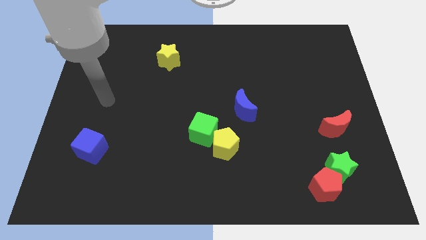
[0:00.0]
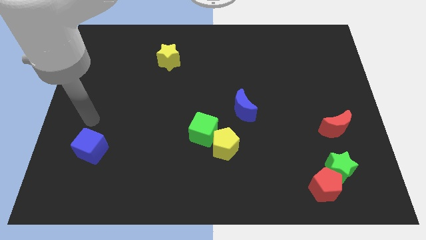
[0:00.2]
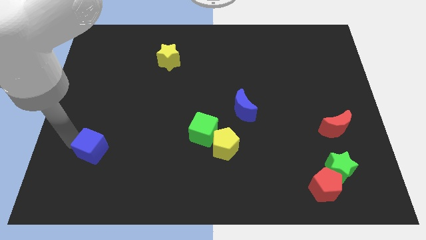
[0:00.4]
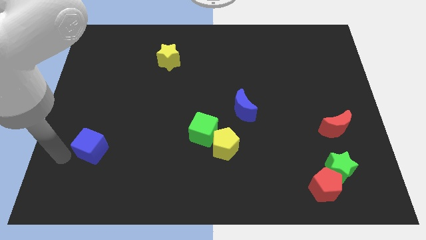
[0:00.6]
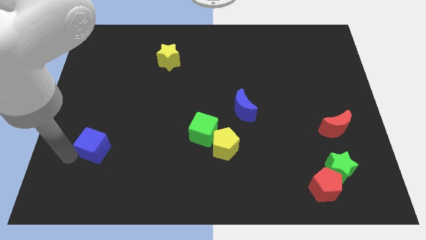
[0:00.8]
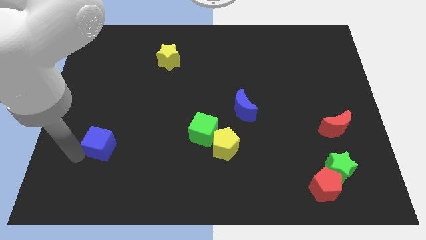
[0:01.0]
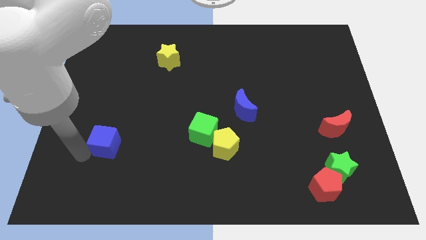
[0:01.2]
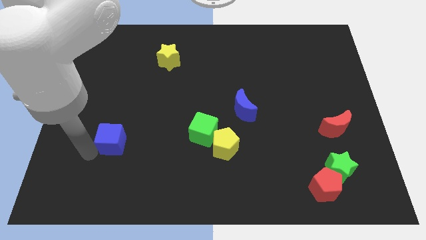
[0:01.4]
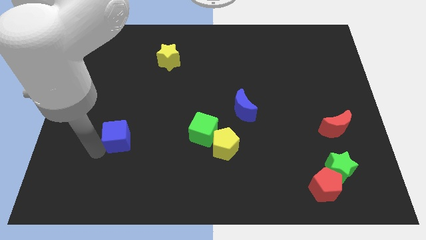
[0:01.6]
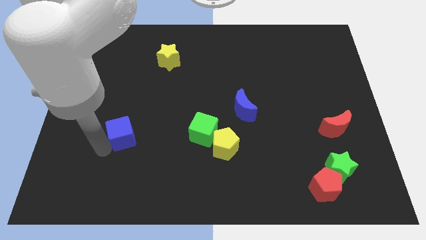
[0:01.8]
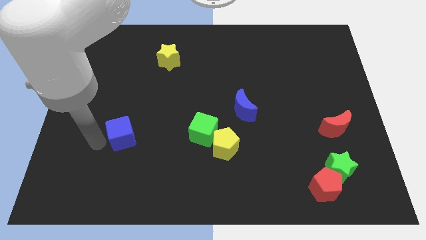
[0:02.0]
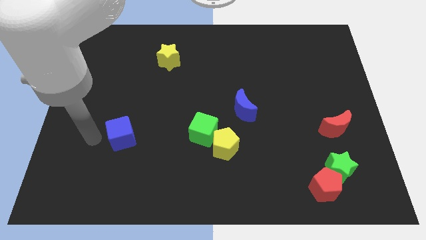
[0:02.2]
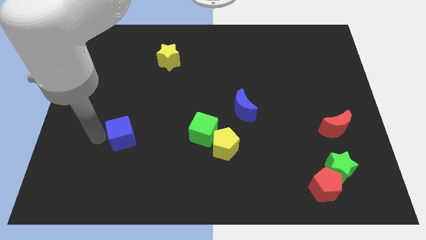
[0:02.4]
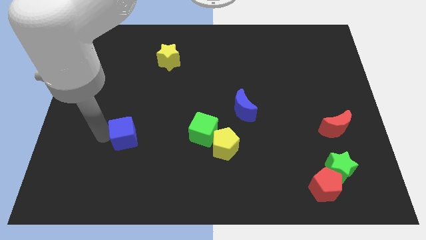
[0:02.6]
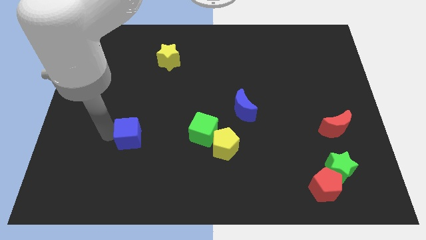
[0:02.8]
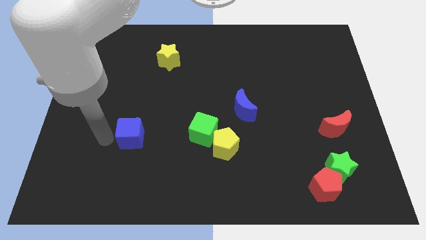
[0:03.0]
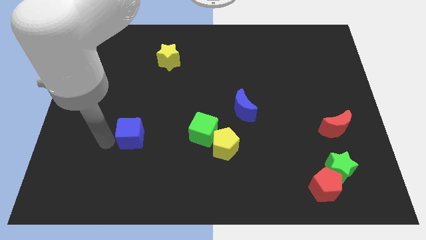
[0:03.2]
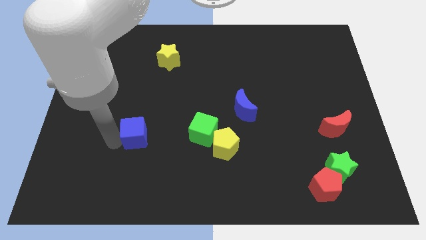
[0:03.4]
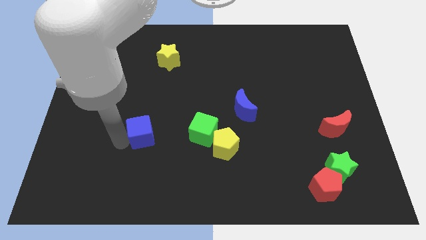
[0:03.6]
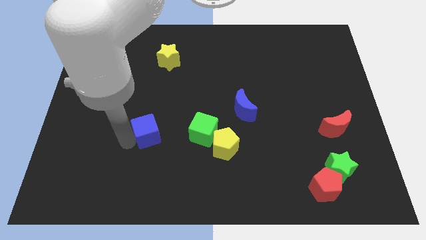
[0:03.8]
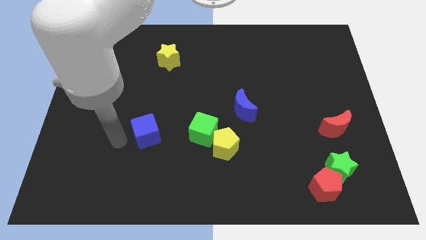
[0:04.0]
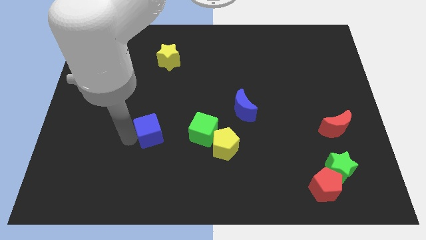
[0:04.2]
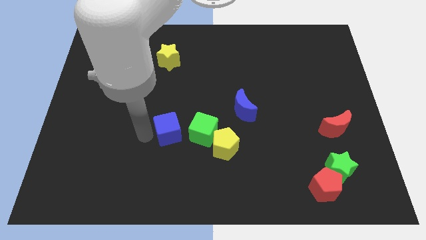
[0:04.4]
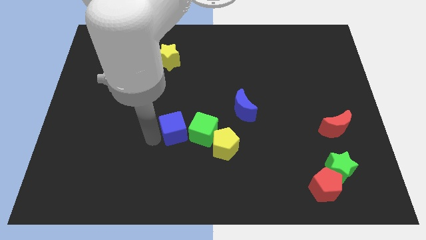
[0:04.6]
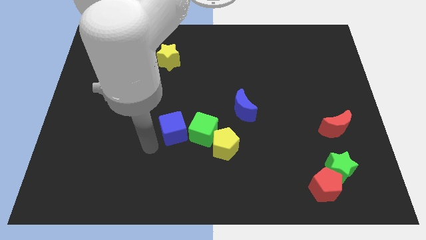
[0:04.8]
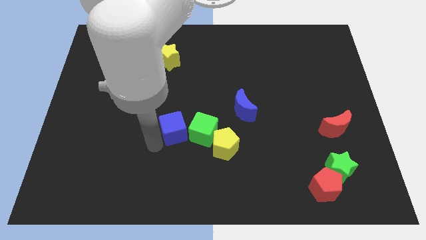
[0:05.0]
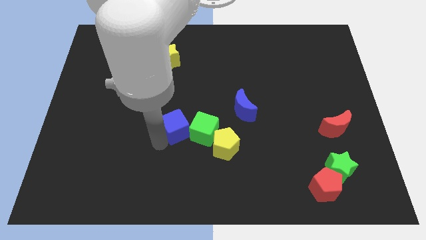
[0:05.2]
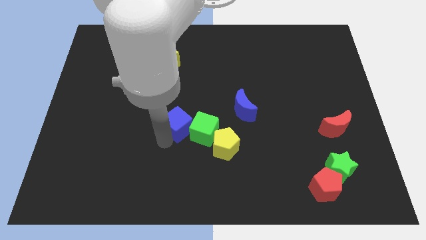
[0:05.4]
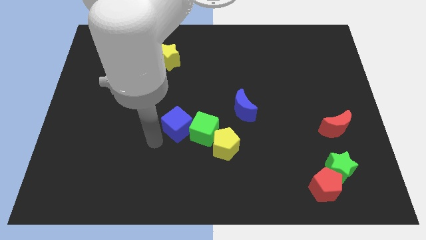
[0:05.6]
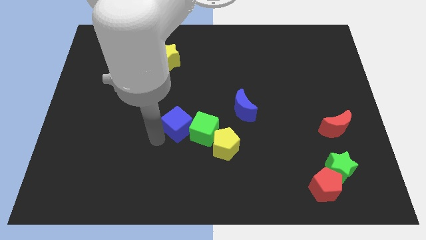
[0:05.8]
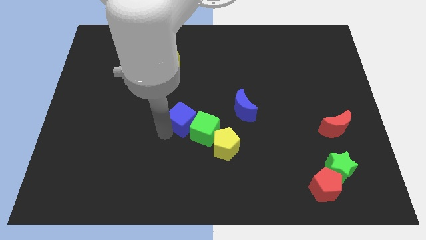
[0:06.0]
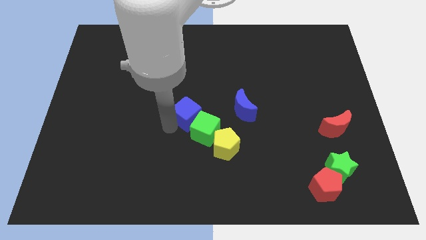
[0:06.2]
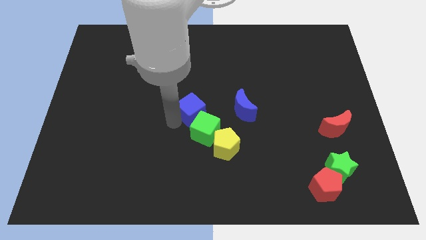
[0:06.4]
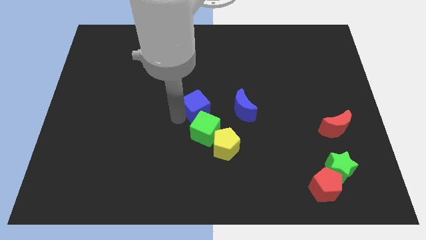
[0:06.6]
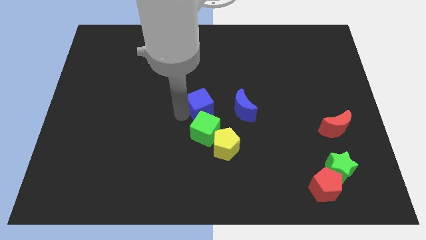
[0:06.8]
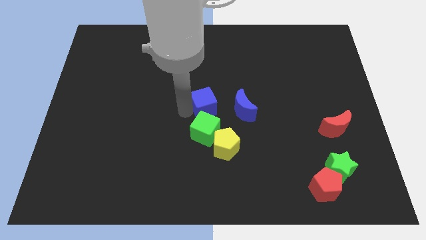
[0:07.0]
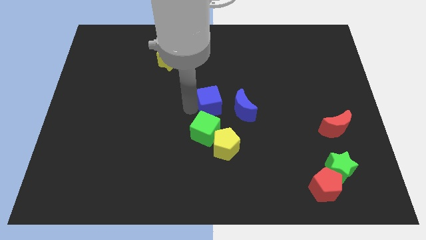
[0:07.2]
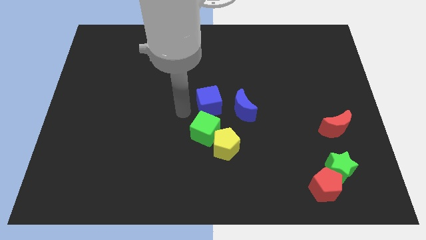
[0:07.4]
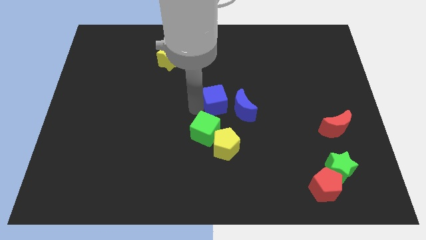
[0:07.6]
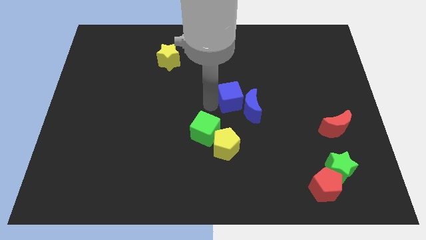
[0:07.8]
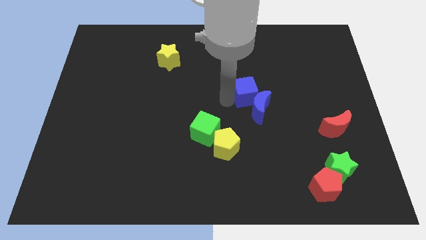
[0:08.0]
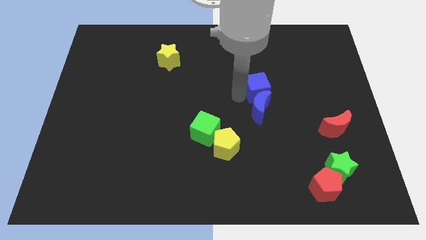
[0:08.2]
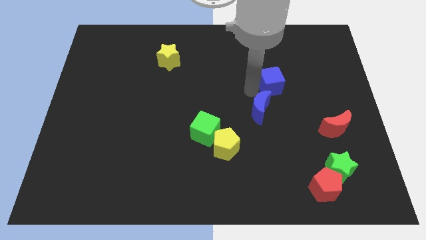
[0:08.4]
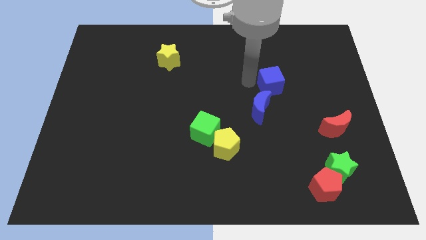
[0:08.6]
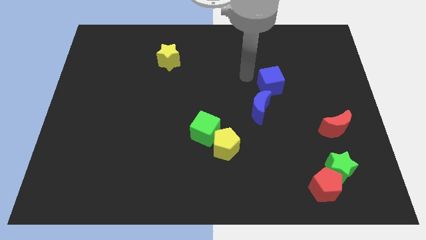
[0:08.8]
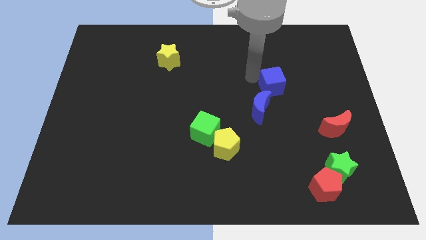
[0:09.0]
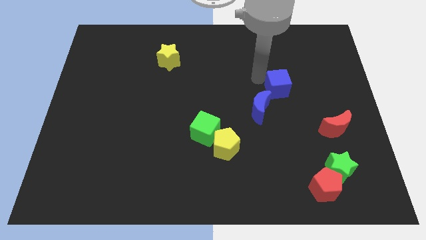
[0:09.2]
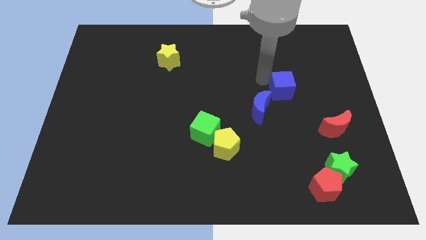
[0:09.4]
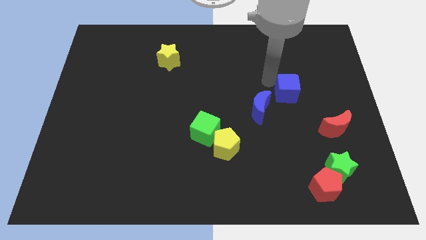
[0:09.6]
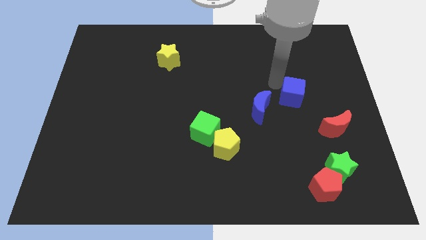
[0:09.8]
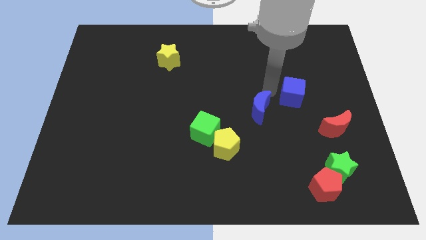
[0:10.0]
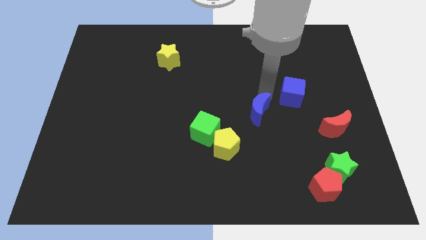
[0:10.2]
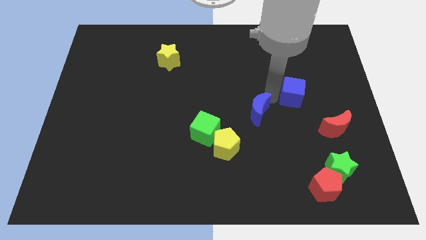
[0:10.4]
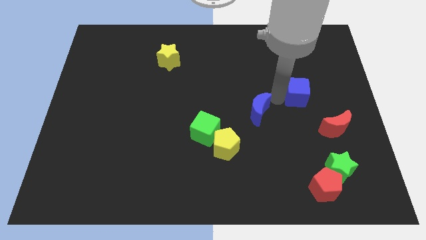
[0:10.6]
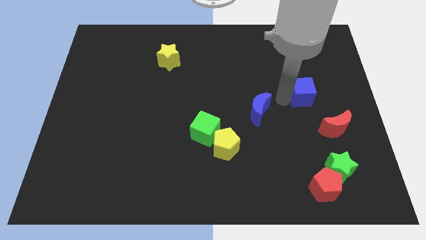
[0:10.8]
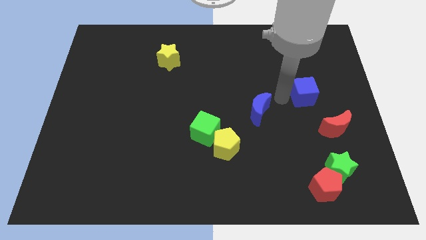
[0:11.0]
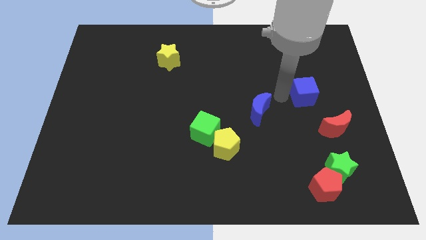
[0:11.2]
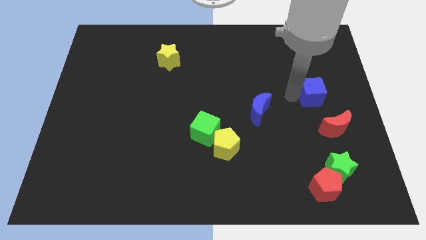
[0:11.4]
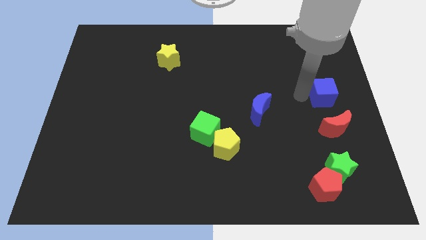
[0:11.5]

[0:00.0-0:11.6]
put the blue cube to the center right

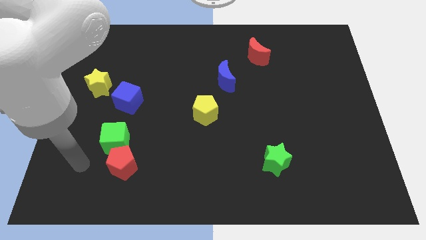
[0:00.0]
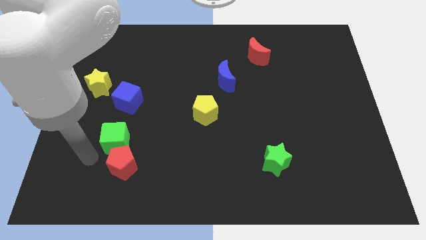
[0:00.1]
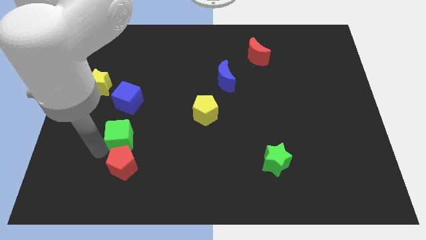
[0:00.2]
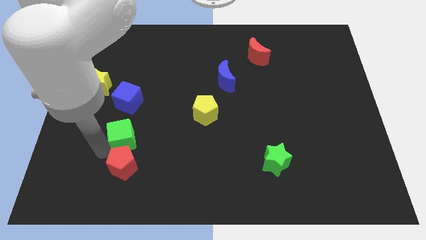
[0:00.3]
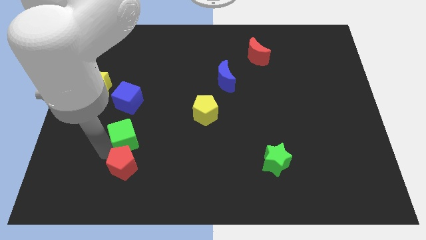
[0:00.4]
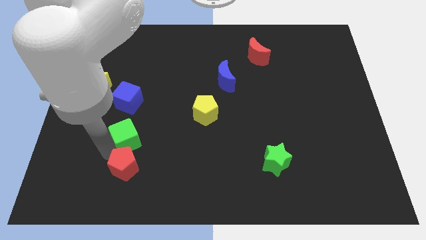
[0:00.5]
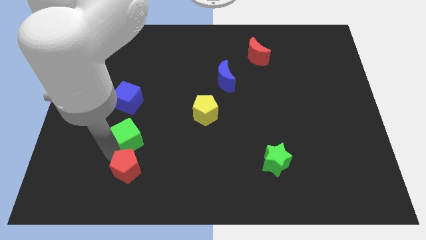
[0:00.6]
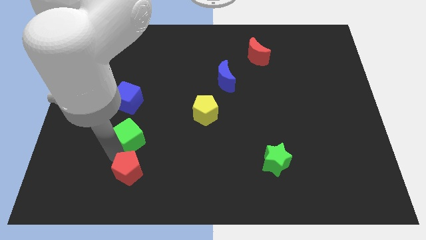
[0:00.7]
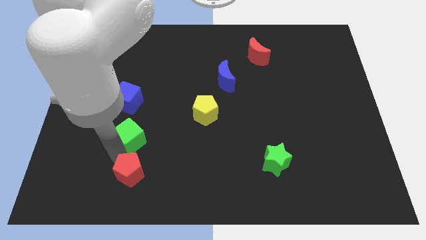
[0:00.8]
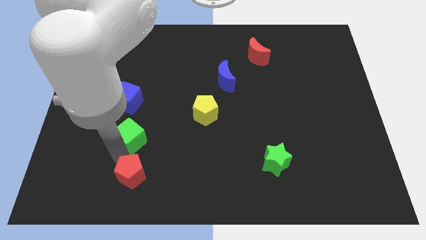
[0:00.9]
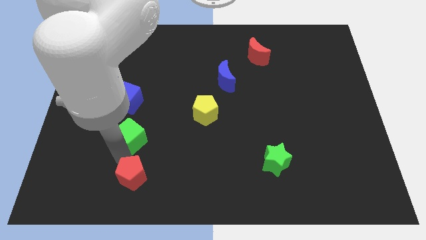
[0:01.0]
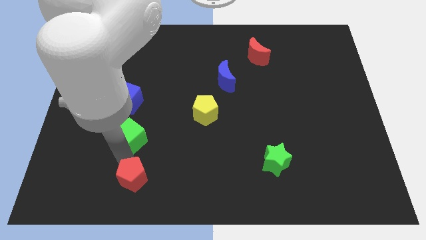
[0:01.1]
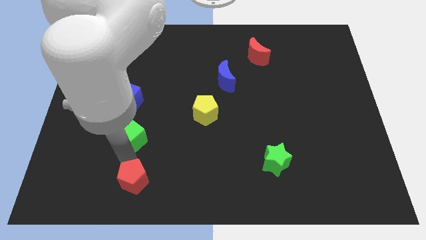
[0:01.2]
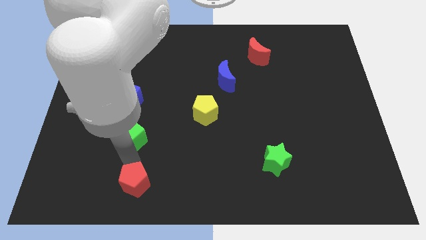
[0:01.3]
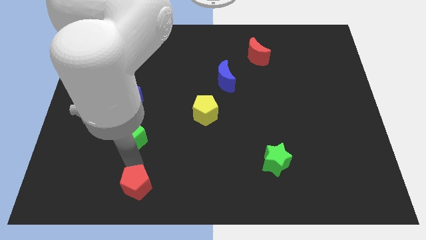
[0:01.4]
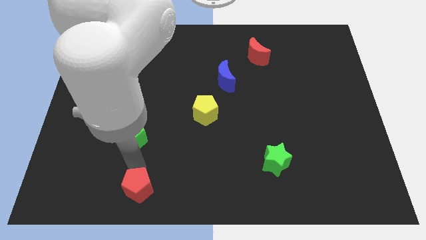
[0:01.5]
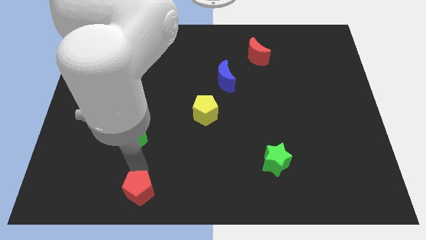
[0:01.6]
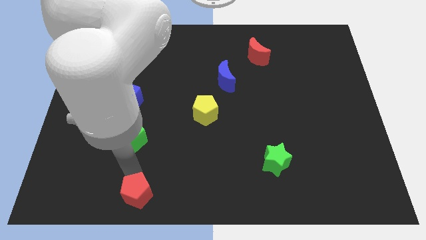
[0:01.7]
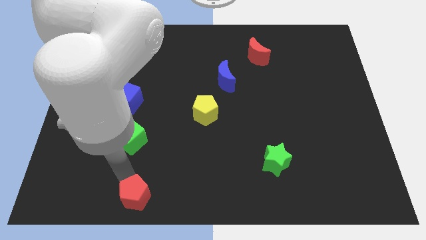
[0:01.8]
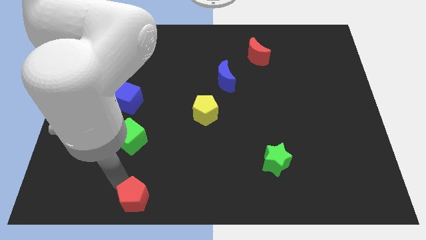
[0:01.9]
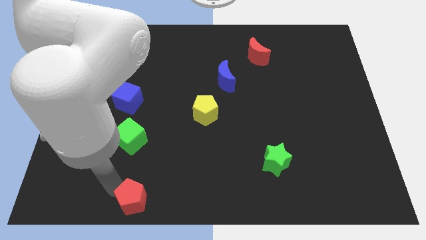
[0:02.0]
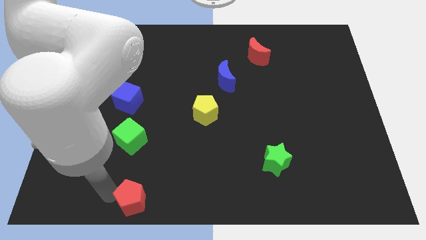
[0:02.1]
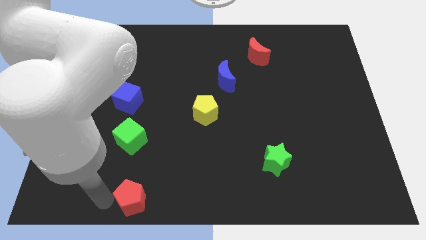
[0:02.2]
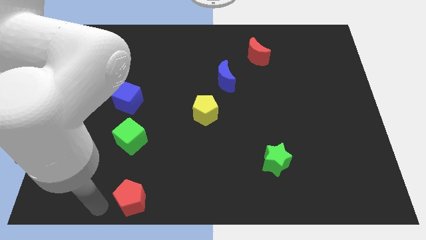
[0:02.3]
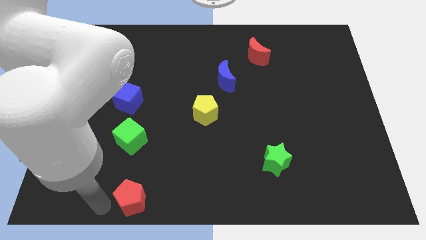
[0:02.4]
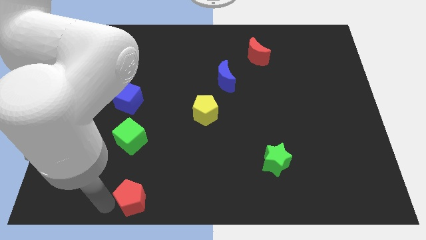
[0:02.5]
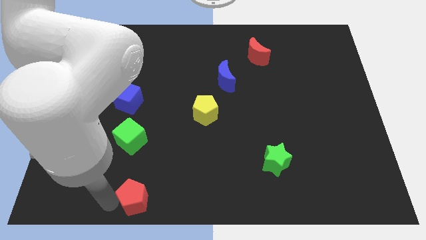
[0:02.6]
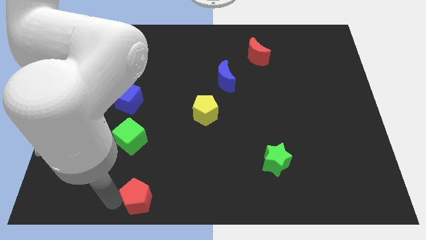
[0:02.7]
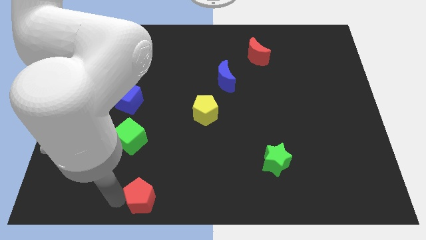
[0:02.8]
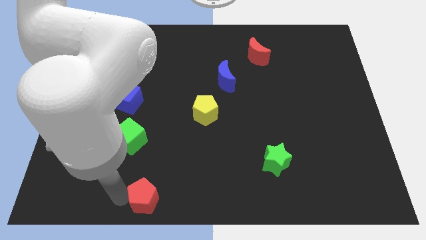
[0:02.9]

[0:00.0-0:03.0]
move the red pentagon to the bottom side
